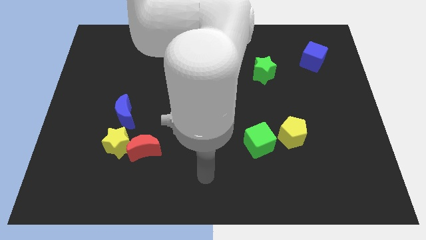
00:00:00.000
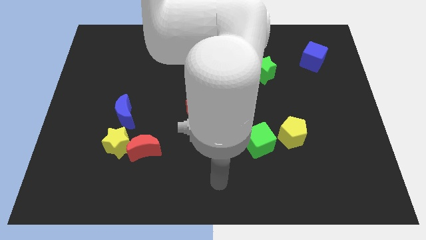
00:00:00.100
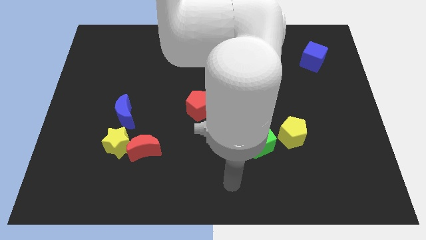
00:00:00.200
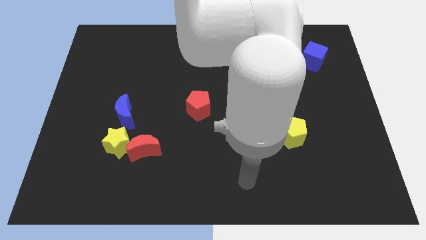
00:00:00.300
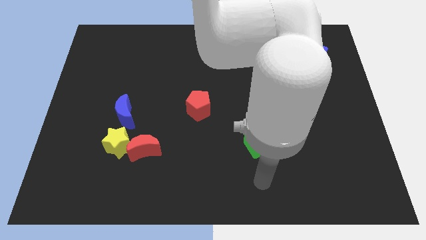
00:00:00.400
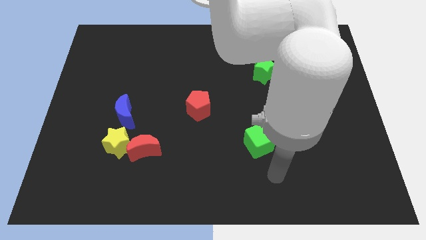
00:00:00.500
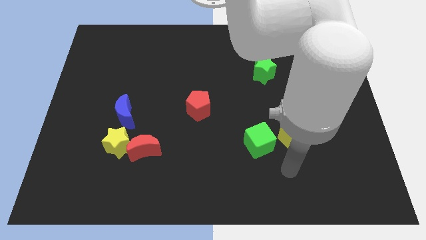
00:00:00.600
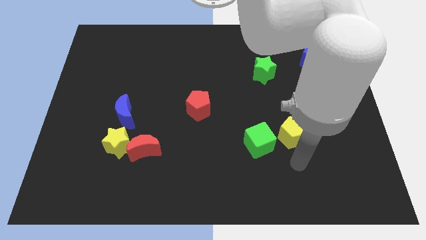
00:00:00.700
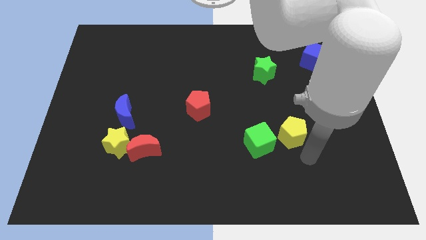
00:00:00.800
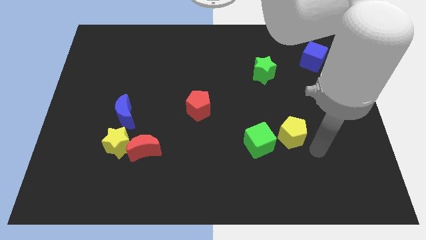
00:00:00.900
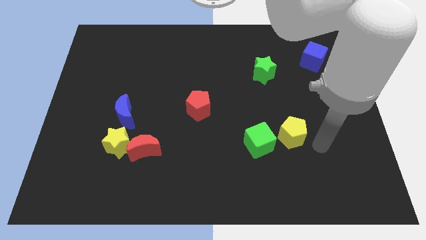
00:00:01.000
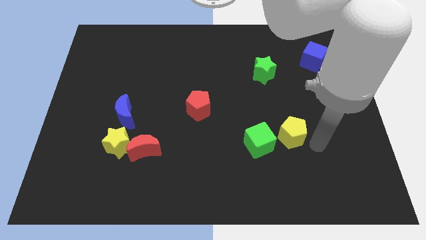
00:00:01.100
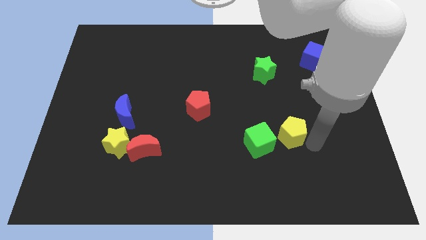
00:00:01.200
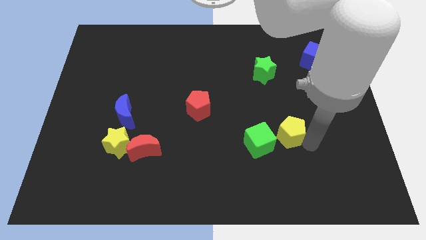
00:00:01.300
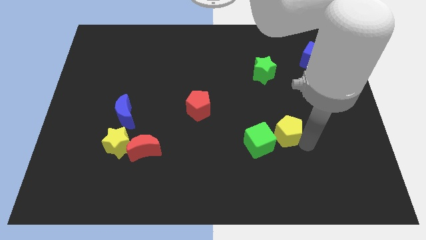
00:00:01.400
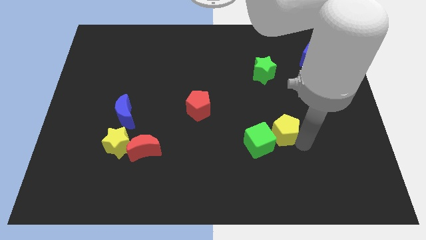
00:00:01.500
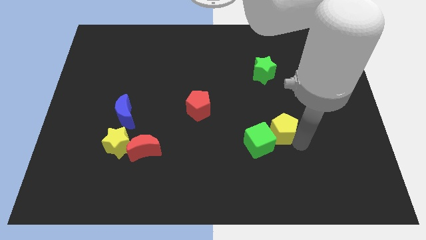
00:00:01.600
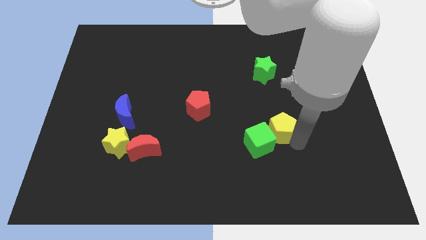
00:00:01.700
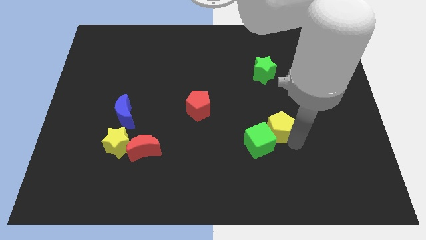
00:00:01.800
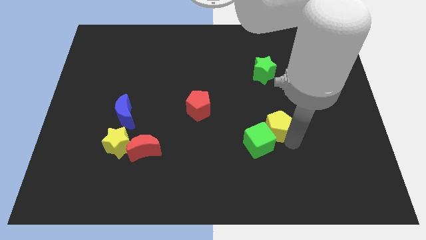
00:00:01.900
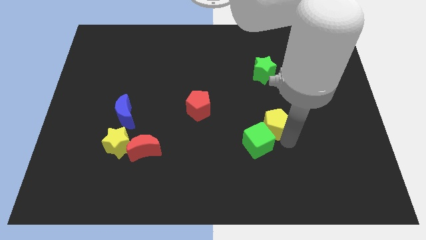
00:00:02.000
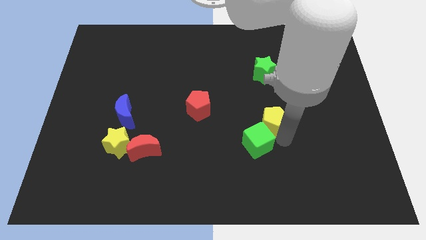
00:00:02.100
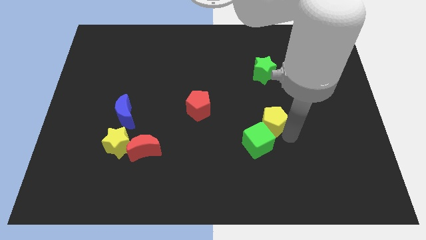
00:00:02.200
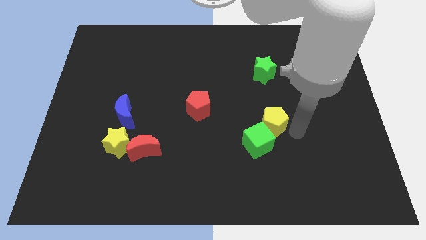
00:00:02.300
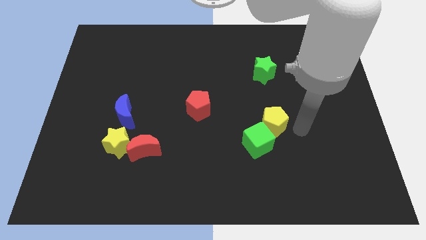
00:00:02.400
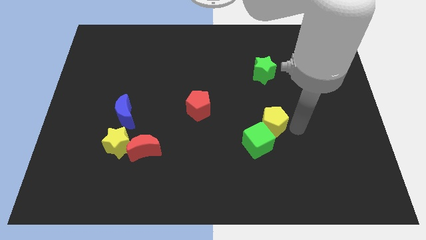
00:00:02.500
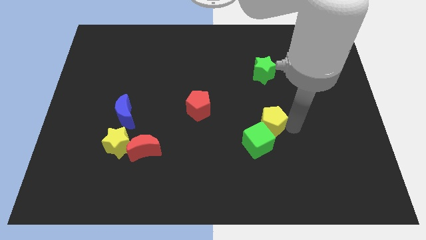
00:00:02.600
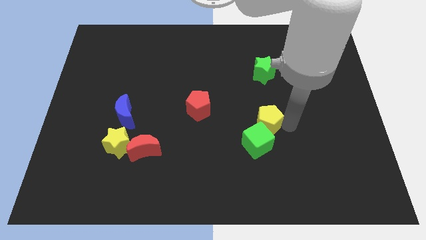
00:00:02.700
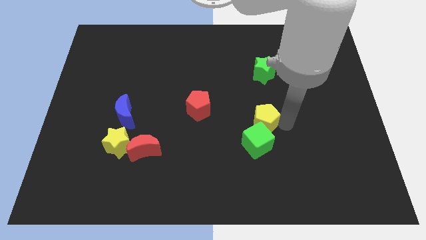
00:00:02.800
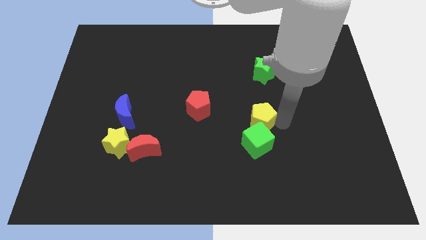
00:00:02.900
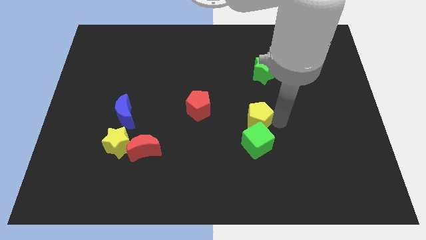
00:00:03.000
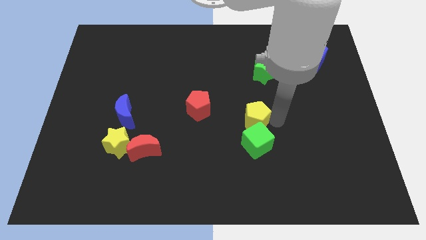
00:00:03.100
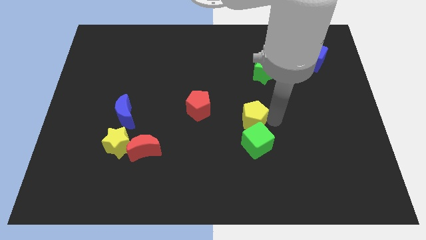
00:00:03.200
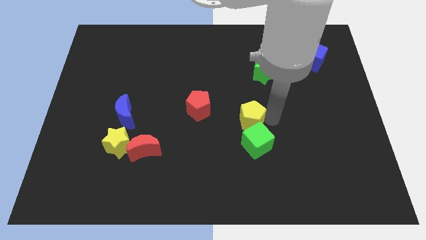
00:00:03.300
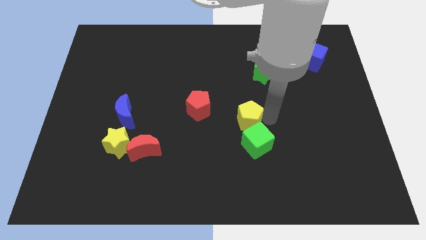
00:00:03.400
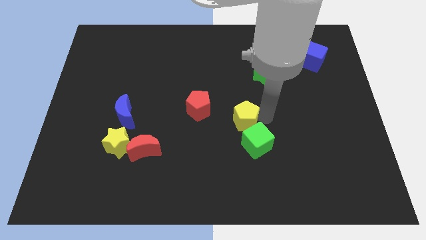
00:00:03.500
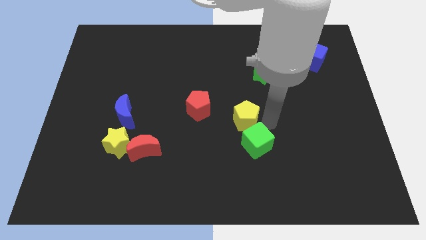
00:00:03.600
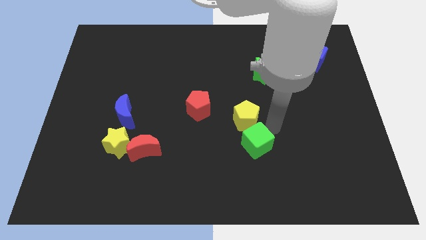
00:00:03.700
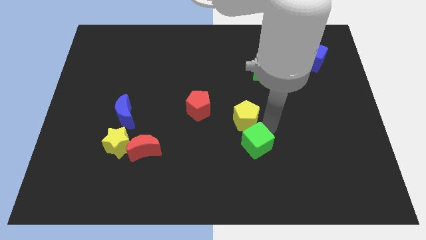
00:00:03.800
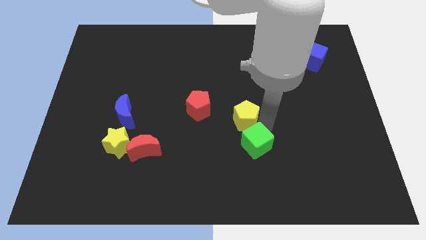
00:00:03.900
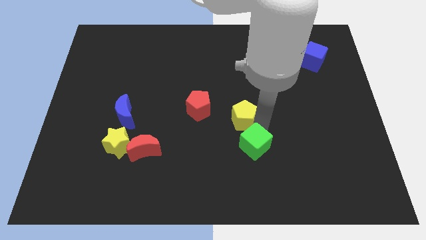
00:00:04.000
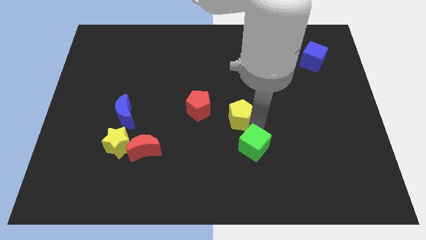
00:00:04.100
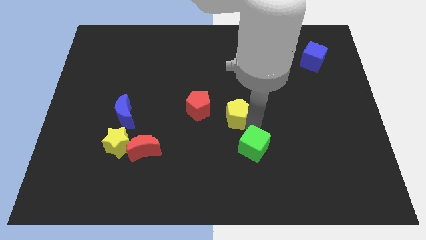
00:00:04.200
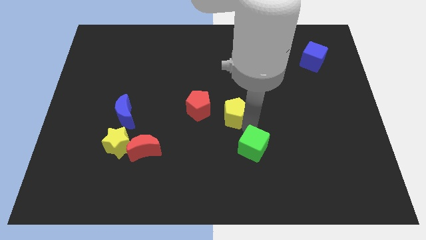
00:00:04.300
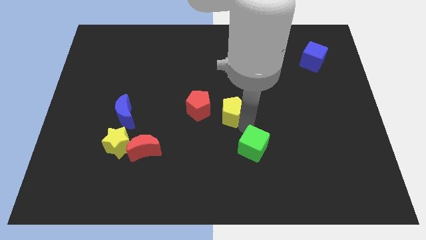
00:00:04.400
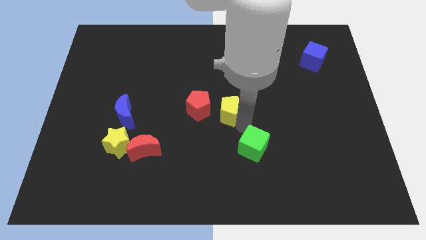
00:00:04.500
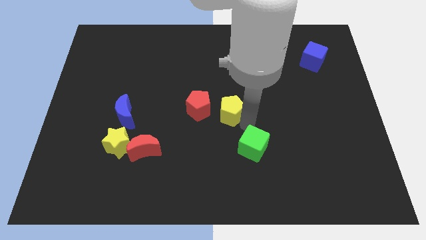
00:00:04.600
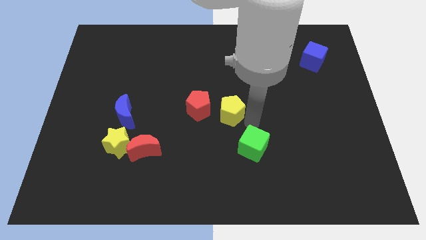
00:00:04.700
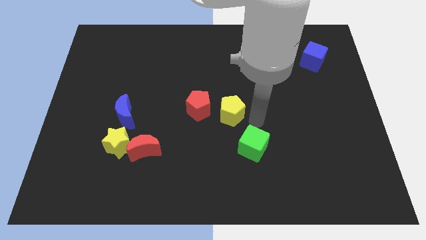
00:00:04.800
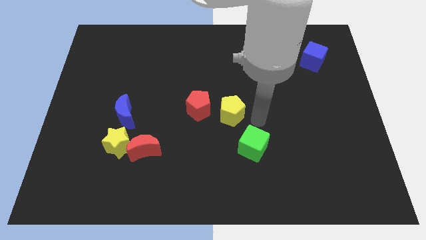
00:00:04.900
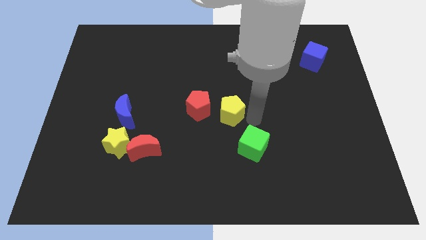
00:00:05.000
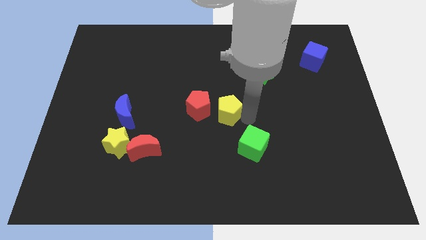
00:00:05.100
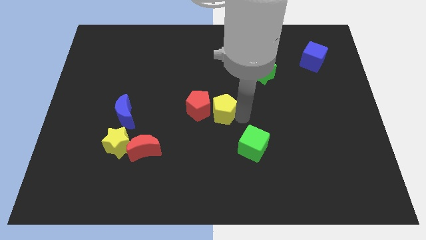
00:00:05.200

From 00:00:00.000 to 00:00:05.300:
put the yellow pentagon towards the red pentagon

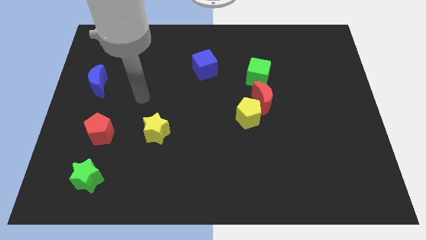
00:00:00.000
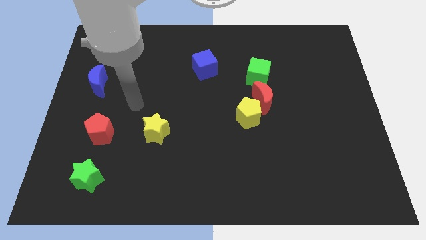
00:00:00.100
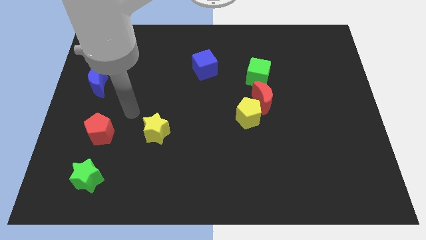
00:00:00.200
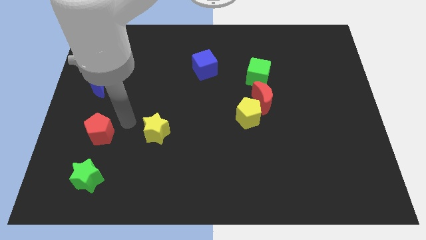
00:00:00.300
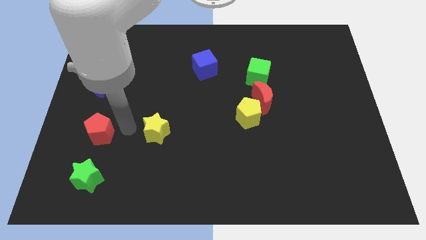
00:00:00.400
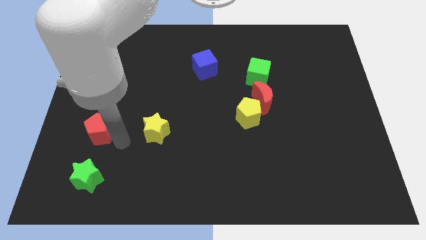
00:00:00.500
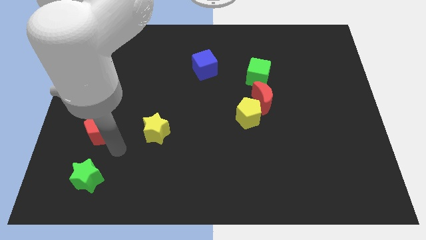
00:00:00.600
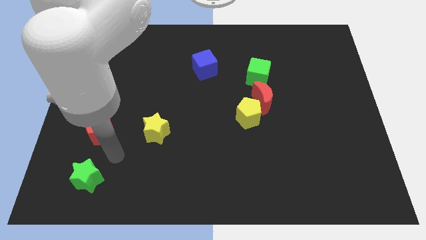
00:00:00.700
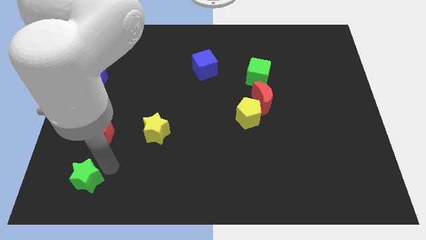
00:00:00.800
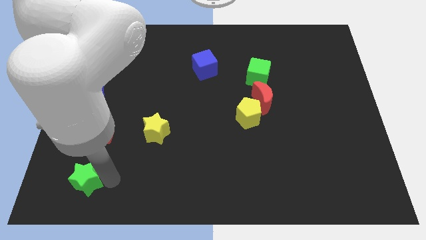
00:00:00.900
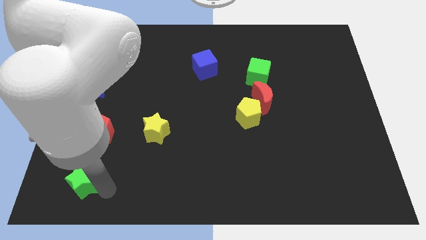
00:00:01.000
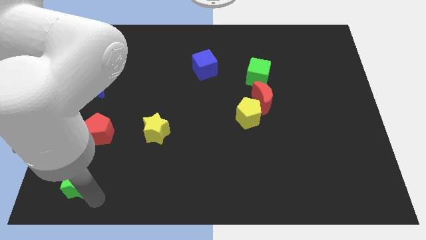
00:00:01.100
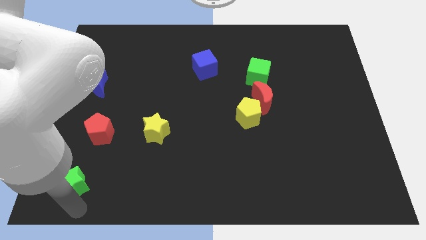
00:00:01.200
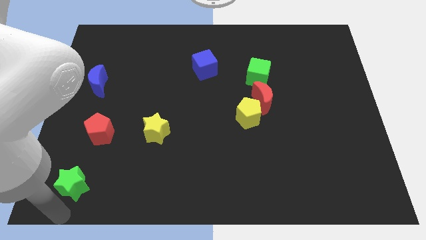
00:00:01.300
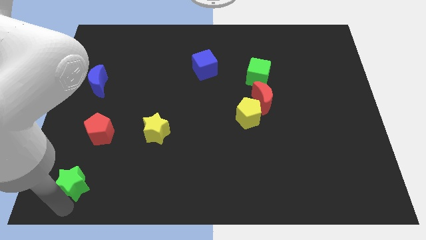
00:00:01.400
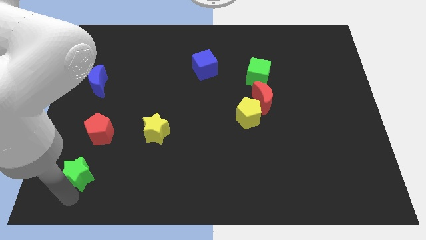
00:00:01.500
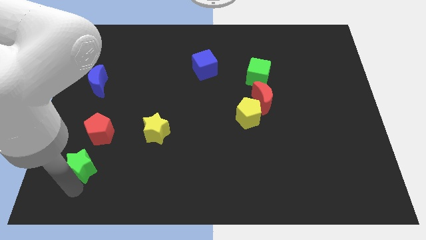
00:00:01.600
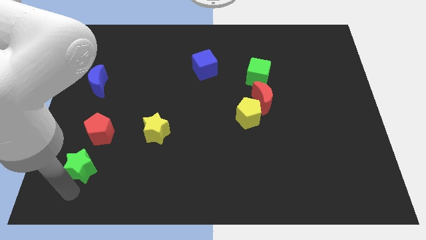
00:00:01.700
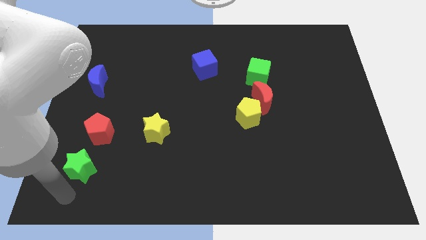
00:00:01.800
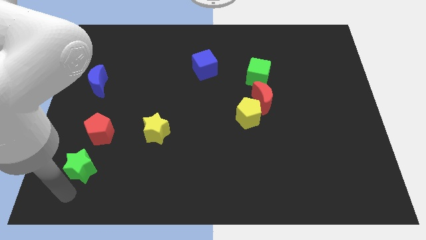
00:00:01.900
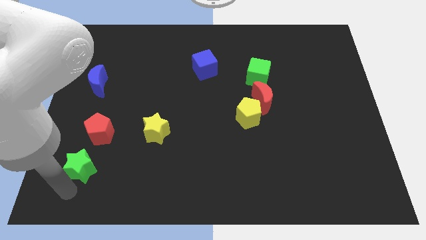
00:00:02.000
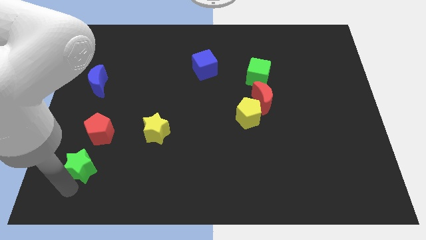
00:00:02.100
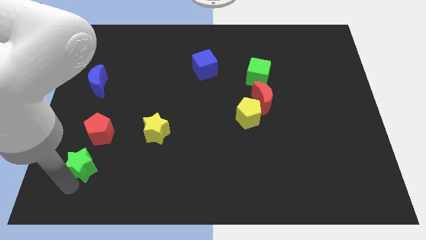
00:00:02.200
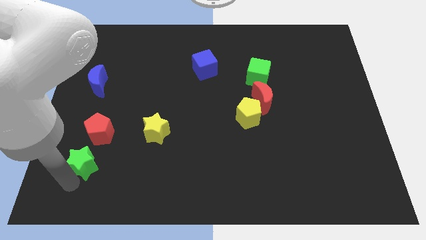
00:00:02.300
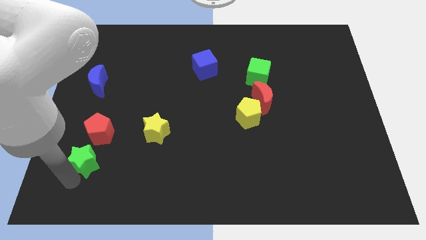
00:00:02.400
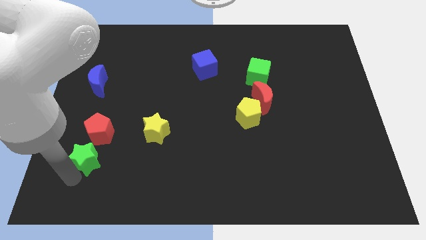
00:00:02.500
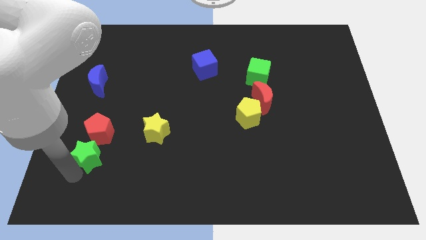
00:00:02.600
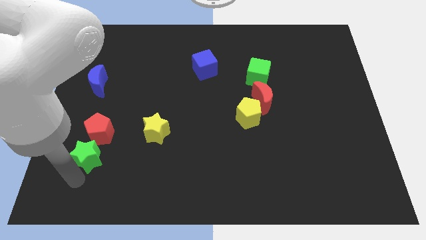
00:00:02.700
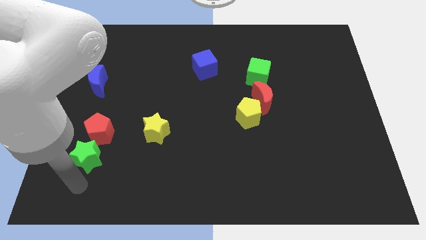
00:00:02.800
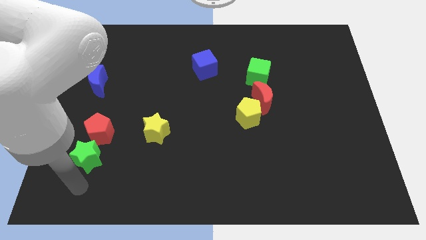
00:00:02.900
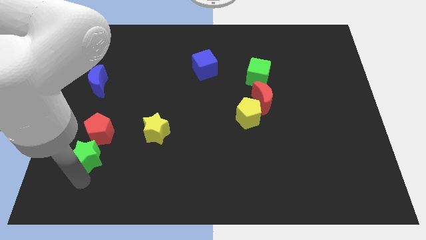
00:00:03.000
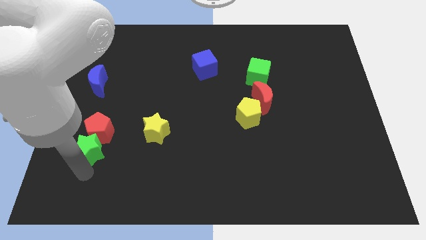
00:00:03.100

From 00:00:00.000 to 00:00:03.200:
slide the green star towards the red pentagon
